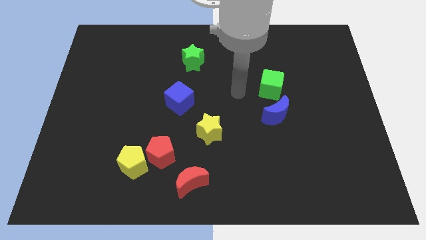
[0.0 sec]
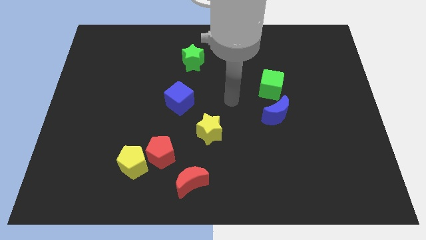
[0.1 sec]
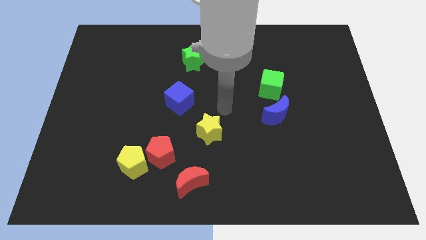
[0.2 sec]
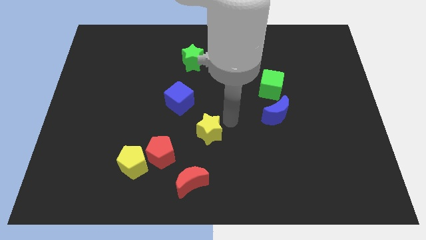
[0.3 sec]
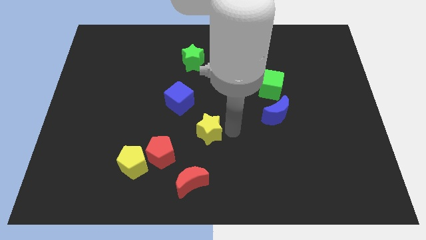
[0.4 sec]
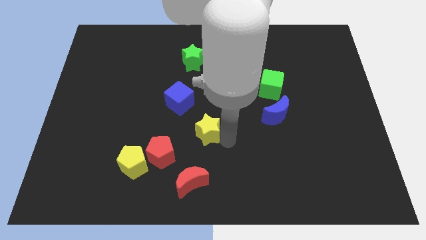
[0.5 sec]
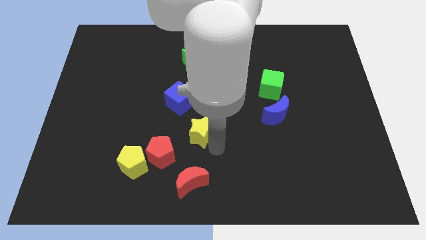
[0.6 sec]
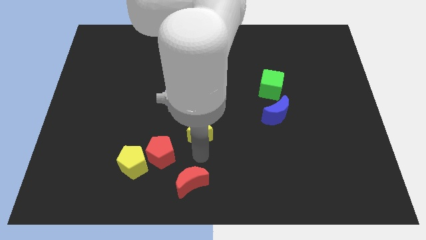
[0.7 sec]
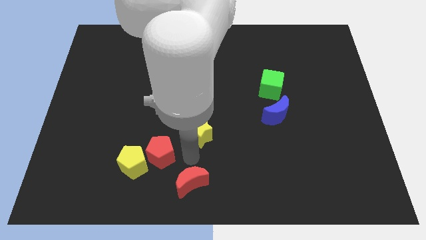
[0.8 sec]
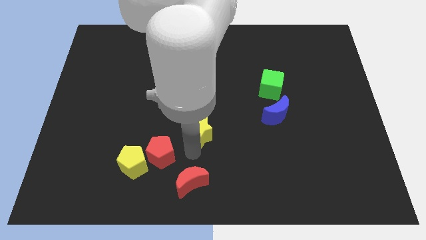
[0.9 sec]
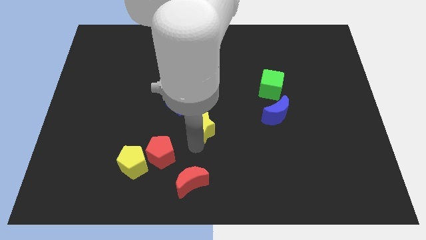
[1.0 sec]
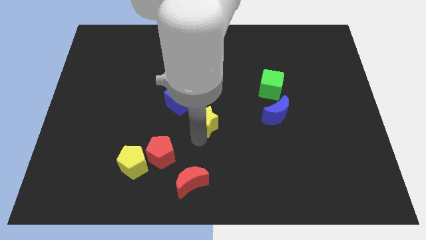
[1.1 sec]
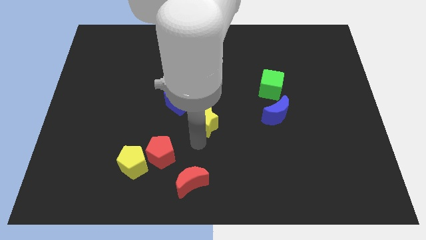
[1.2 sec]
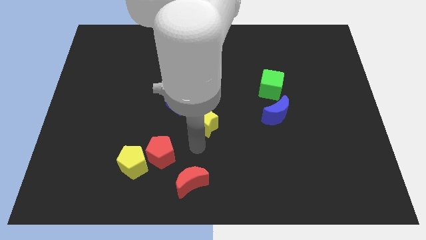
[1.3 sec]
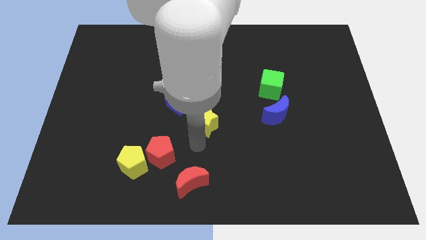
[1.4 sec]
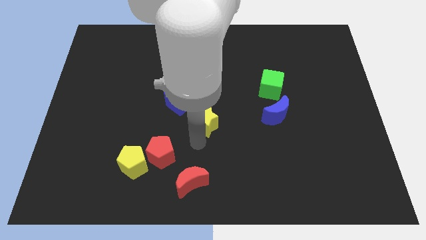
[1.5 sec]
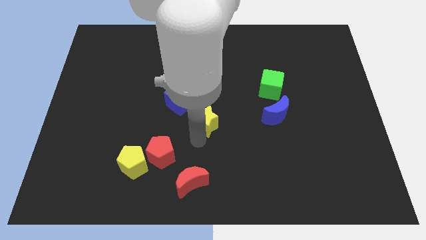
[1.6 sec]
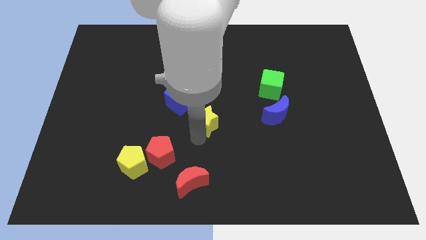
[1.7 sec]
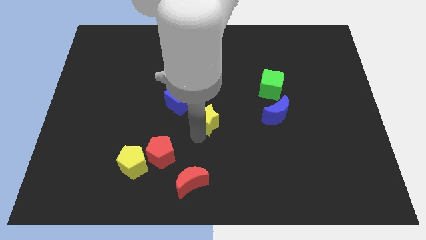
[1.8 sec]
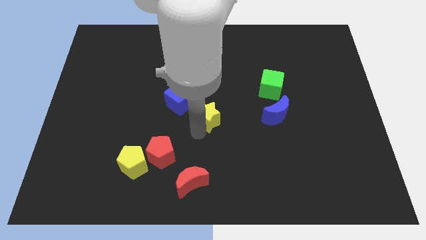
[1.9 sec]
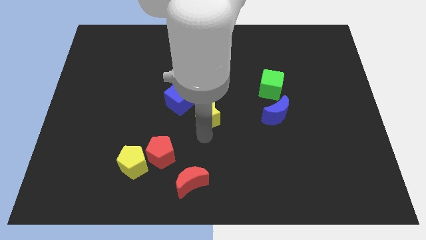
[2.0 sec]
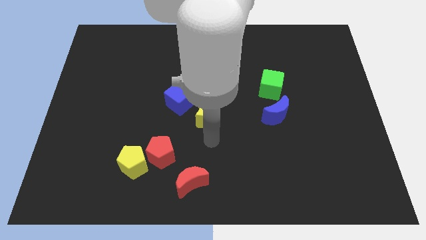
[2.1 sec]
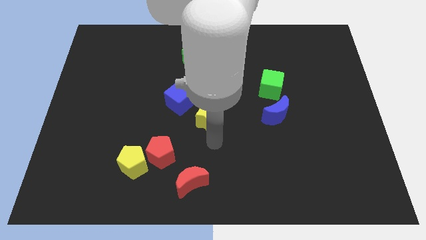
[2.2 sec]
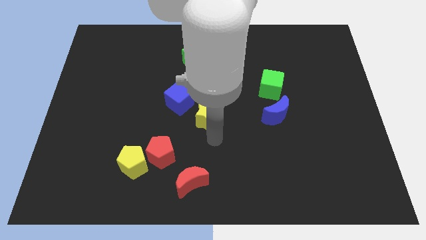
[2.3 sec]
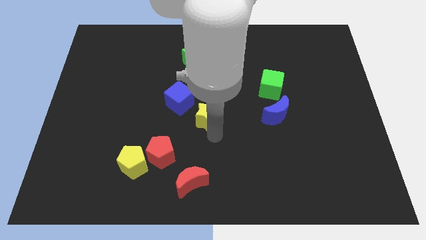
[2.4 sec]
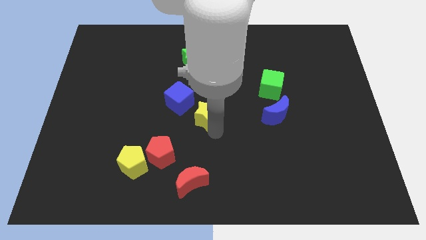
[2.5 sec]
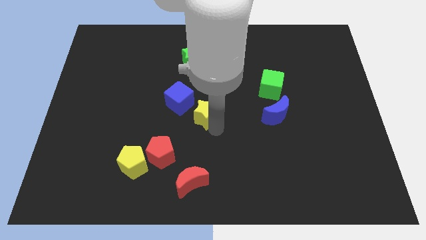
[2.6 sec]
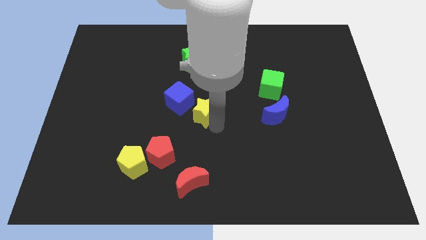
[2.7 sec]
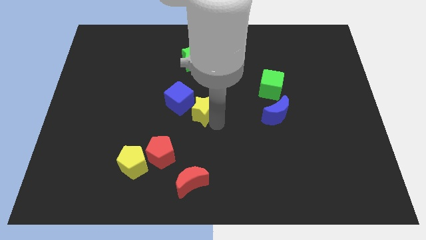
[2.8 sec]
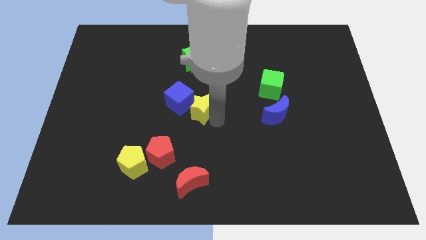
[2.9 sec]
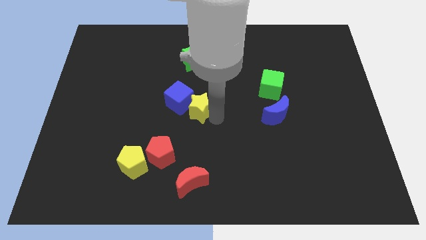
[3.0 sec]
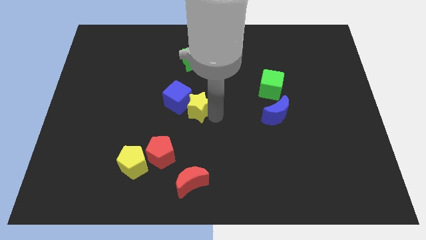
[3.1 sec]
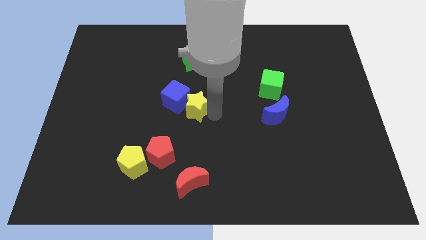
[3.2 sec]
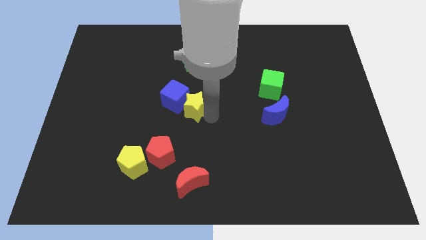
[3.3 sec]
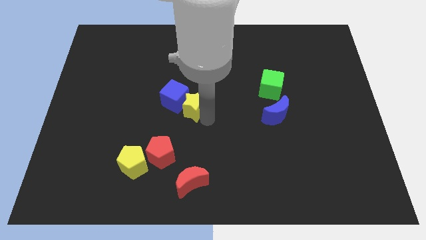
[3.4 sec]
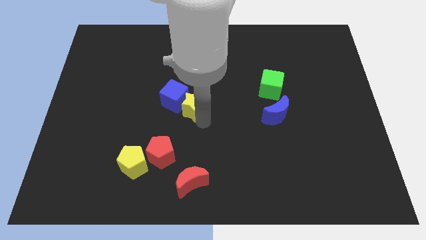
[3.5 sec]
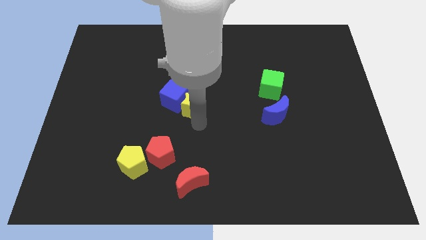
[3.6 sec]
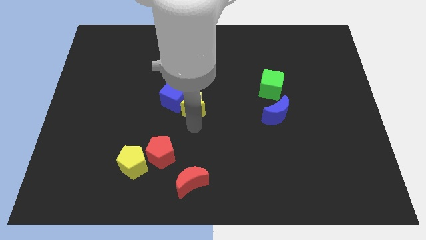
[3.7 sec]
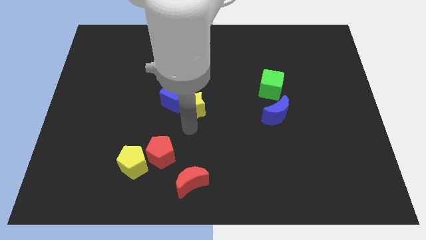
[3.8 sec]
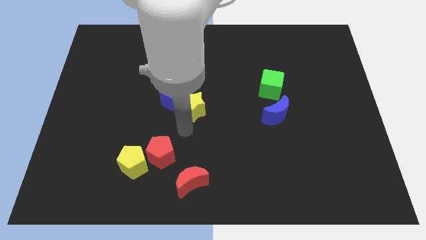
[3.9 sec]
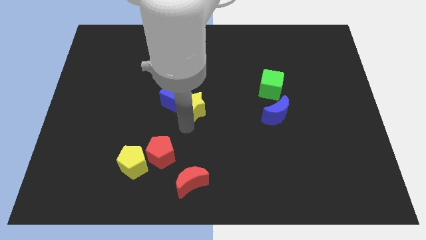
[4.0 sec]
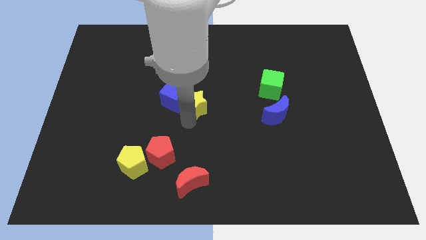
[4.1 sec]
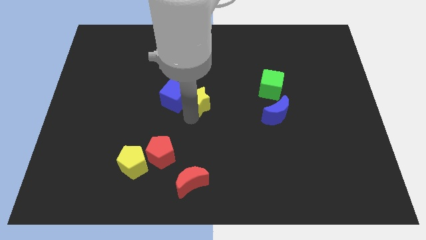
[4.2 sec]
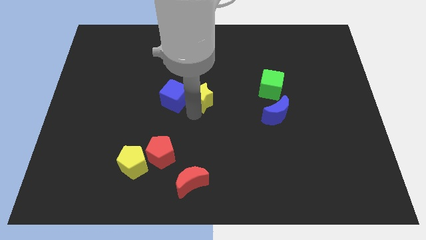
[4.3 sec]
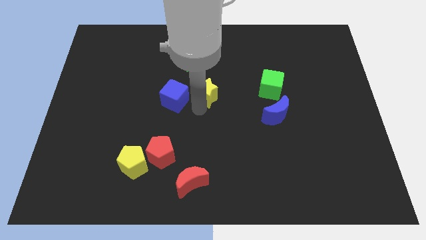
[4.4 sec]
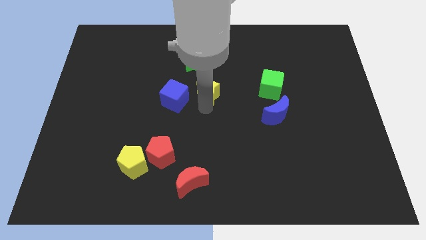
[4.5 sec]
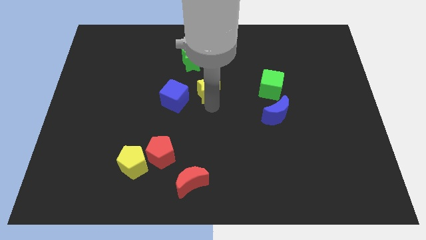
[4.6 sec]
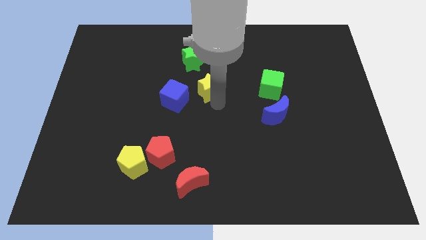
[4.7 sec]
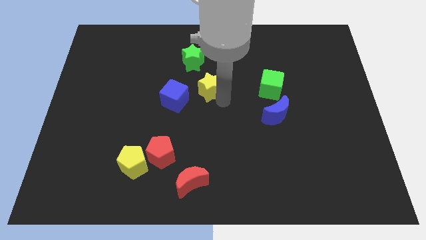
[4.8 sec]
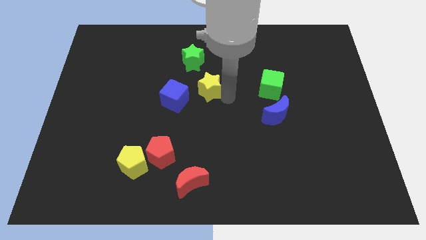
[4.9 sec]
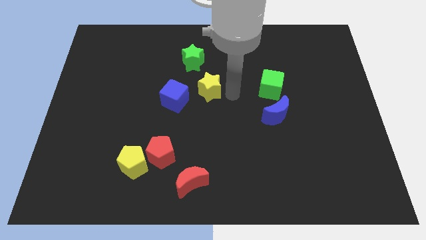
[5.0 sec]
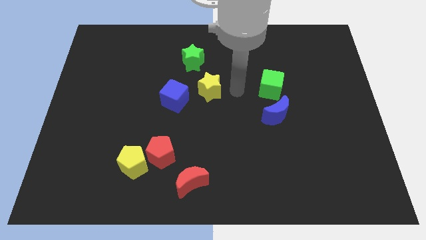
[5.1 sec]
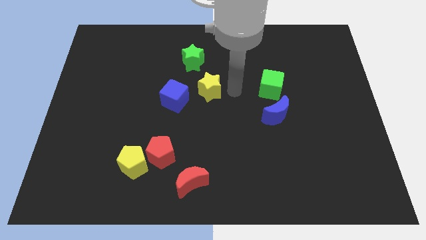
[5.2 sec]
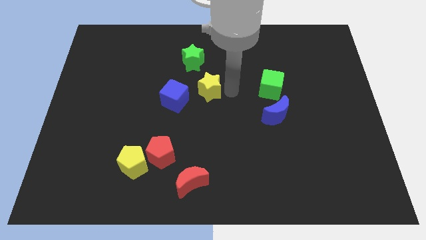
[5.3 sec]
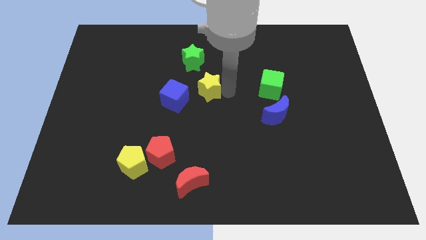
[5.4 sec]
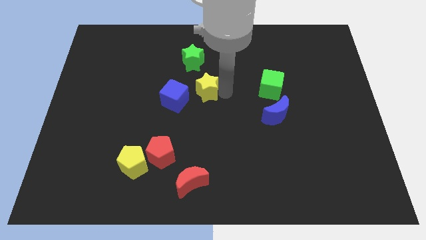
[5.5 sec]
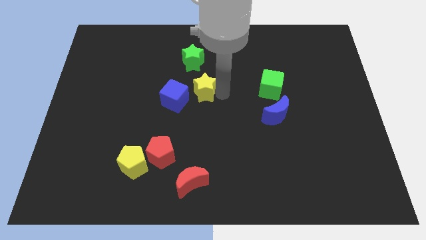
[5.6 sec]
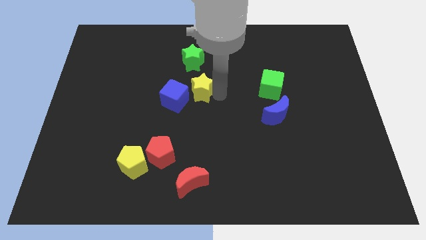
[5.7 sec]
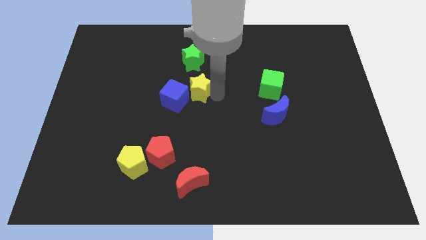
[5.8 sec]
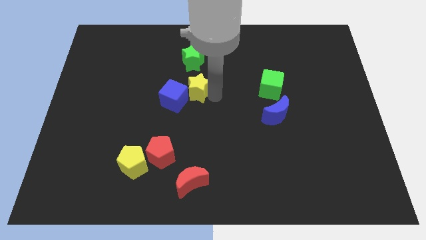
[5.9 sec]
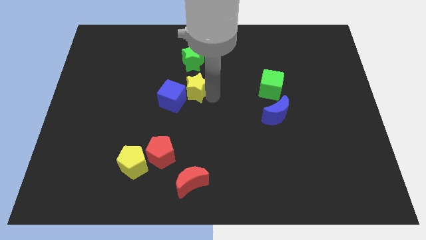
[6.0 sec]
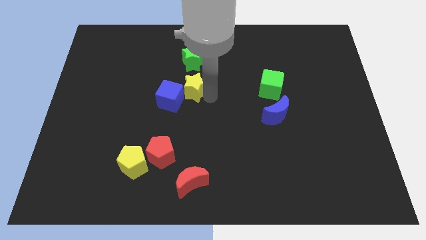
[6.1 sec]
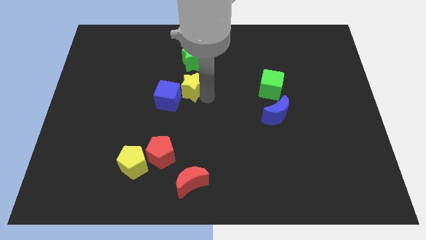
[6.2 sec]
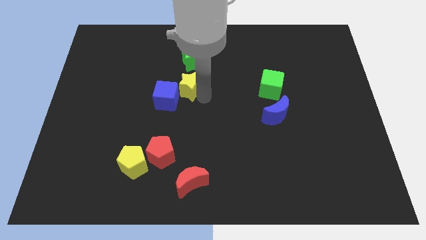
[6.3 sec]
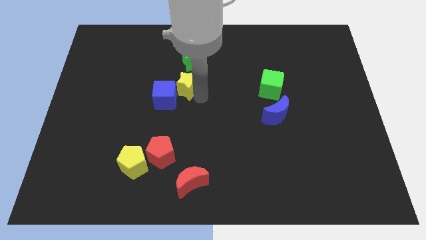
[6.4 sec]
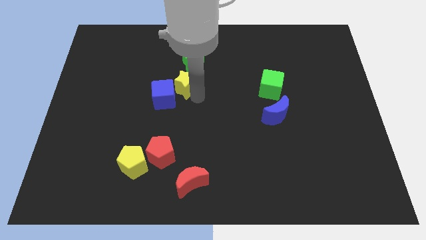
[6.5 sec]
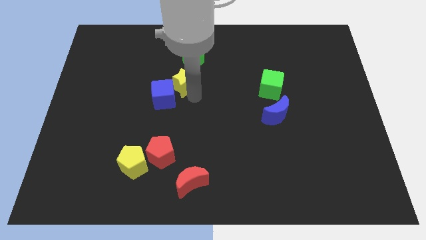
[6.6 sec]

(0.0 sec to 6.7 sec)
push the yellow star diagonally down and to the left of the green star

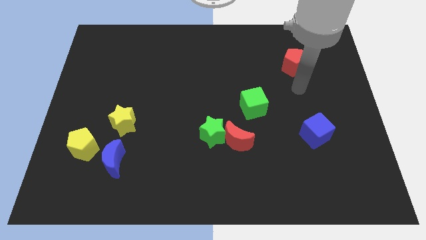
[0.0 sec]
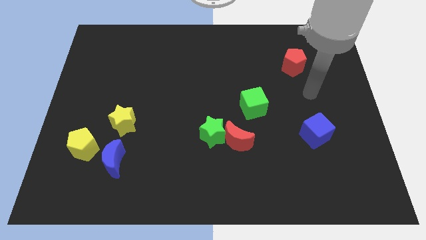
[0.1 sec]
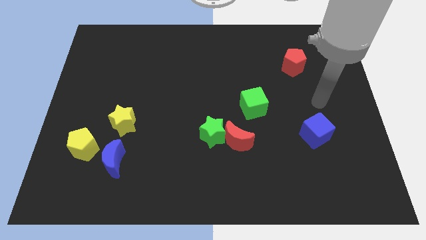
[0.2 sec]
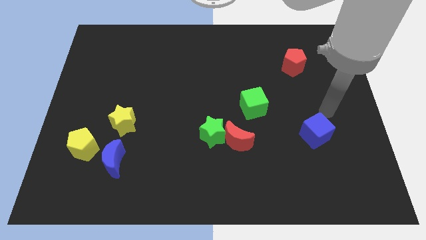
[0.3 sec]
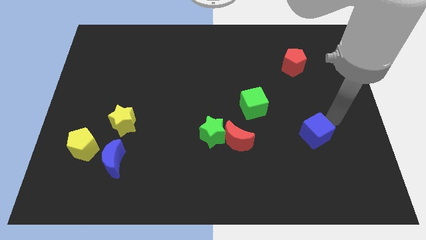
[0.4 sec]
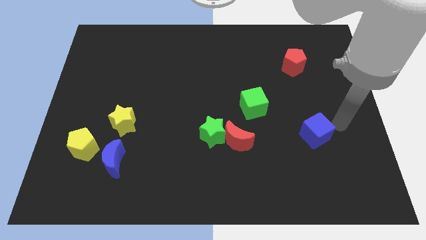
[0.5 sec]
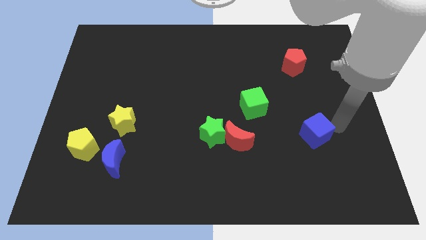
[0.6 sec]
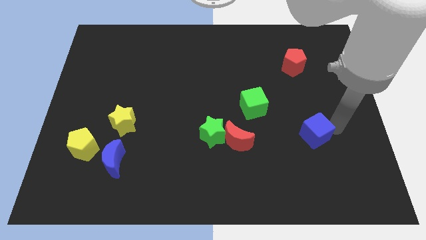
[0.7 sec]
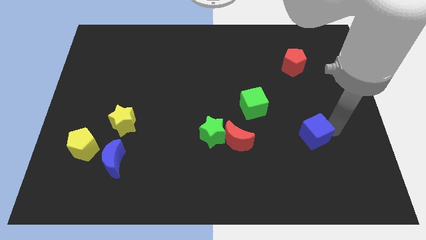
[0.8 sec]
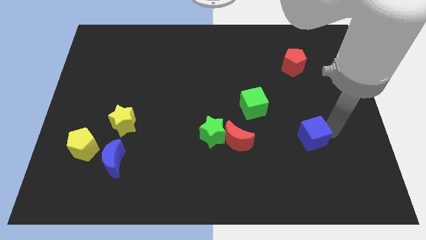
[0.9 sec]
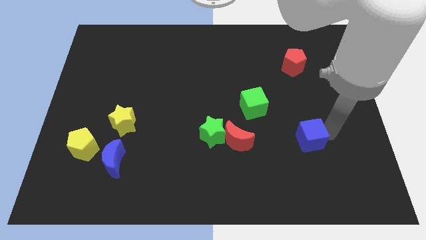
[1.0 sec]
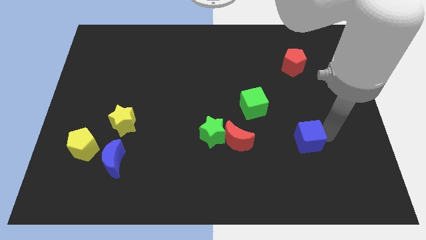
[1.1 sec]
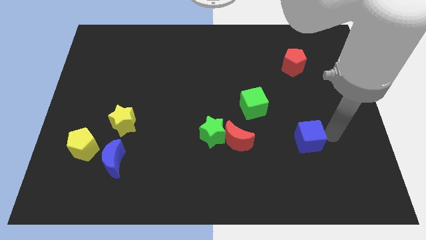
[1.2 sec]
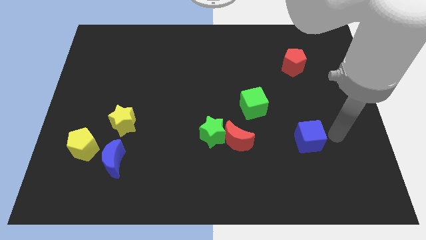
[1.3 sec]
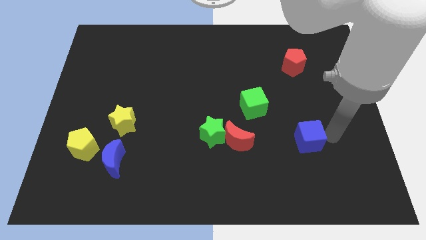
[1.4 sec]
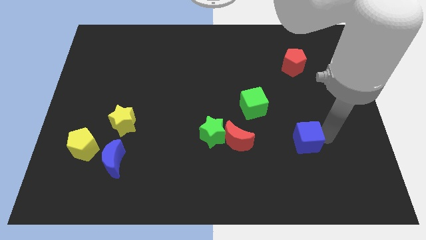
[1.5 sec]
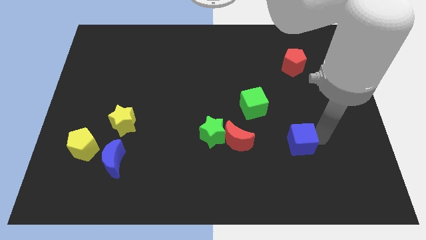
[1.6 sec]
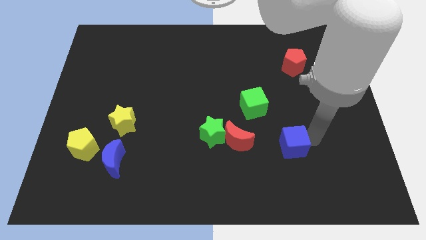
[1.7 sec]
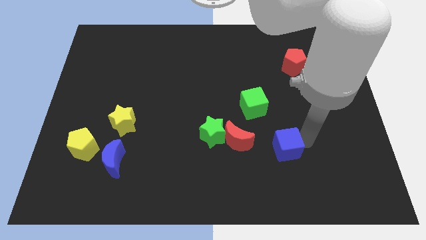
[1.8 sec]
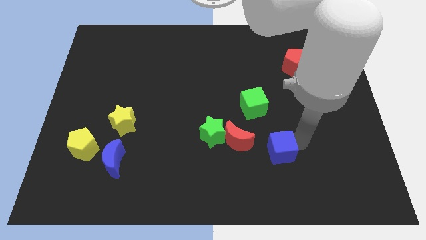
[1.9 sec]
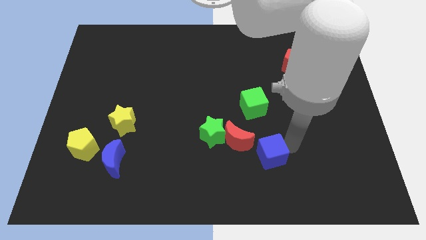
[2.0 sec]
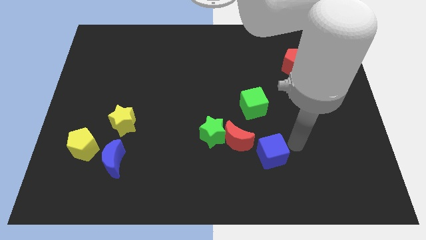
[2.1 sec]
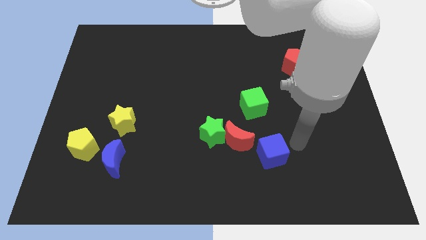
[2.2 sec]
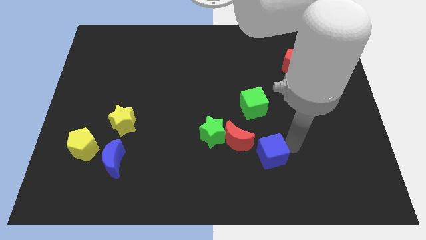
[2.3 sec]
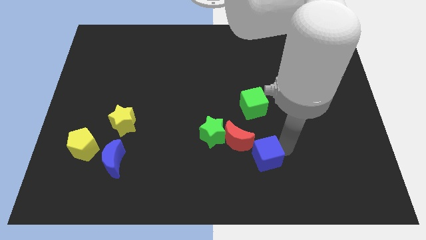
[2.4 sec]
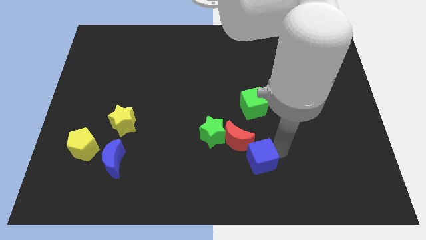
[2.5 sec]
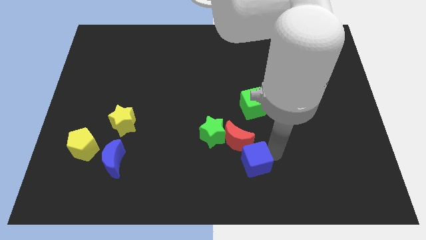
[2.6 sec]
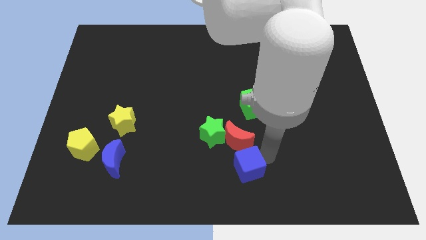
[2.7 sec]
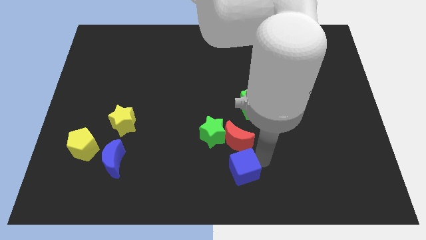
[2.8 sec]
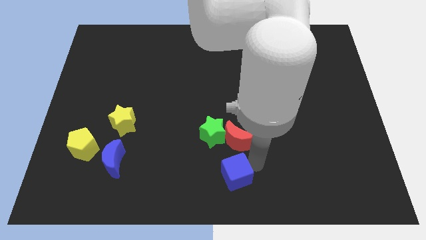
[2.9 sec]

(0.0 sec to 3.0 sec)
move the blue cube to the bottom of the green star
